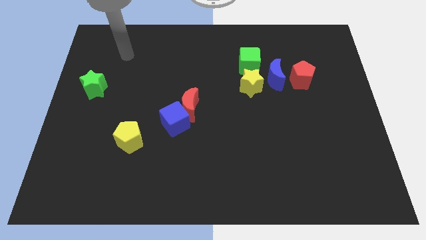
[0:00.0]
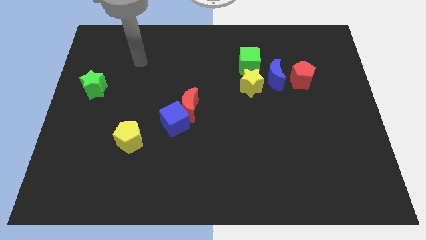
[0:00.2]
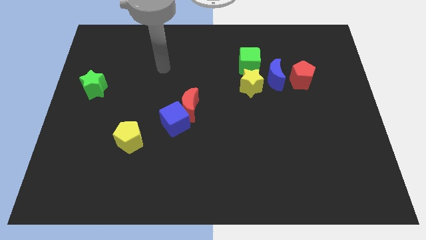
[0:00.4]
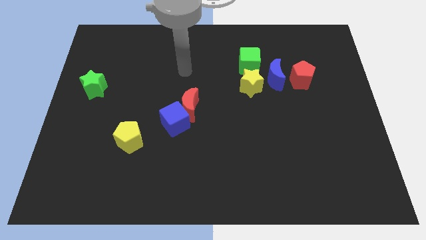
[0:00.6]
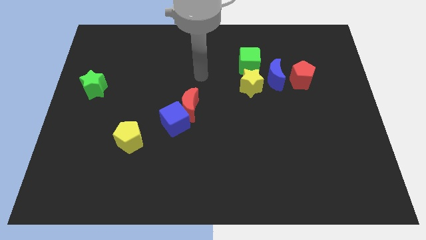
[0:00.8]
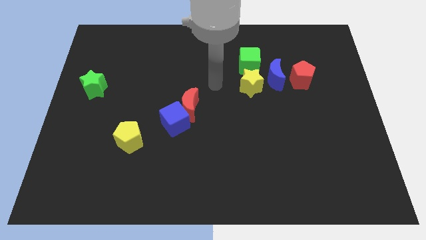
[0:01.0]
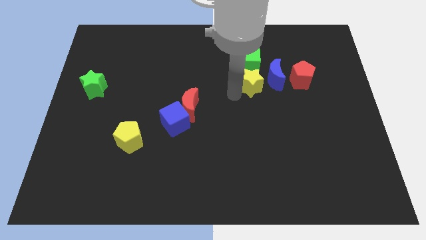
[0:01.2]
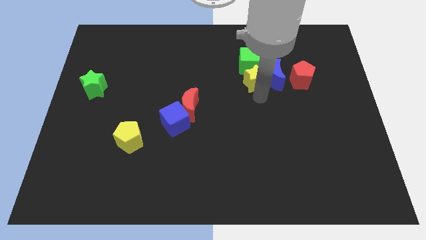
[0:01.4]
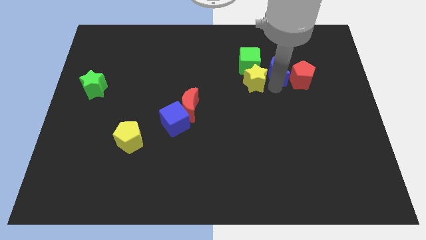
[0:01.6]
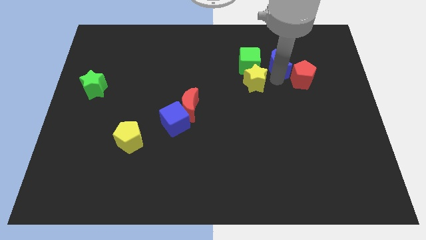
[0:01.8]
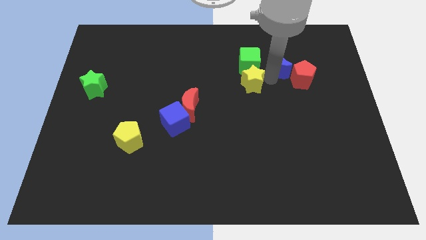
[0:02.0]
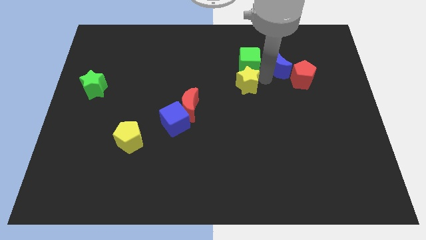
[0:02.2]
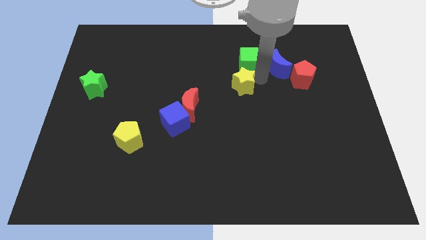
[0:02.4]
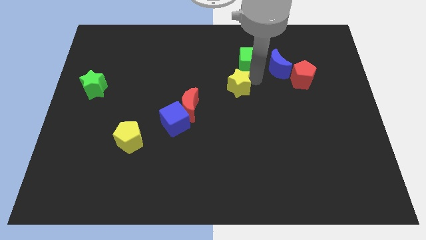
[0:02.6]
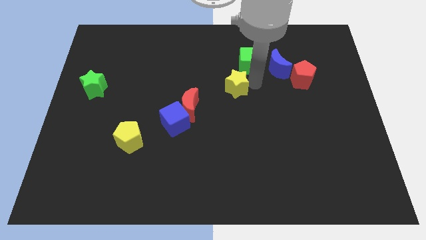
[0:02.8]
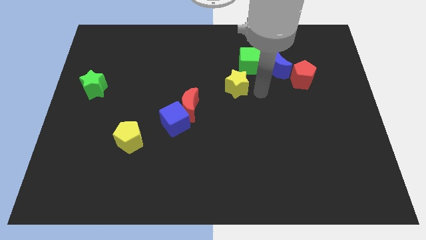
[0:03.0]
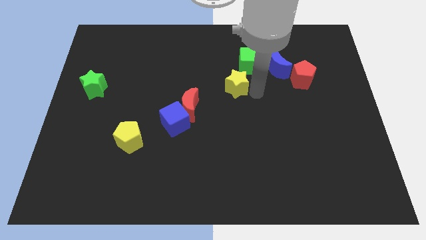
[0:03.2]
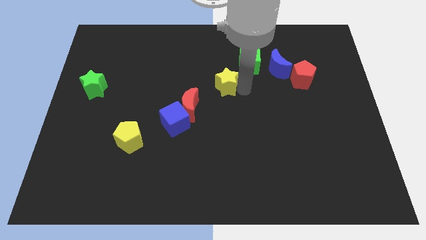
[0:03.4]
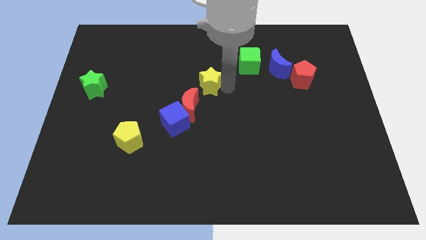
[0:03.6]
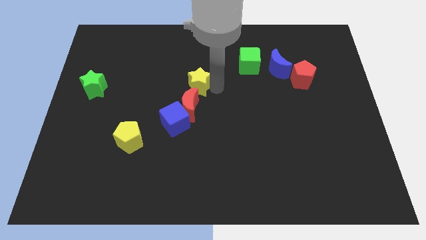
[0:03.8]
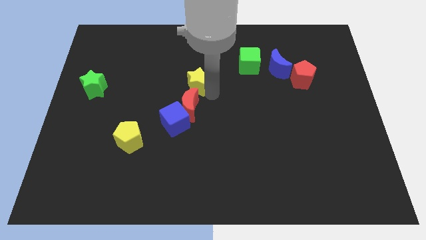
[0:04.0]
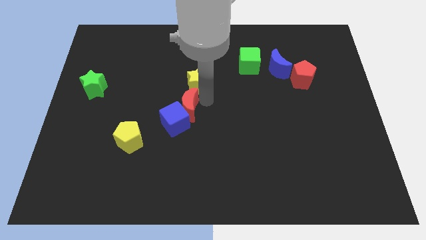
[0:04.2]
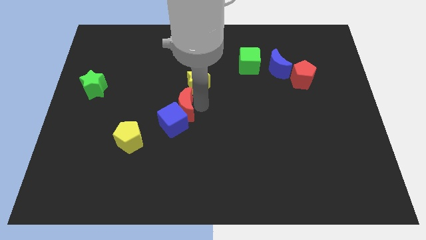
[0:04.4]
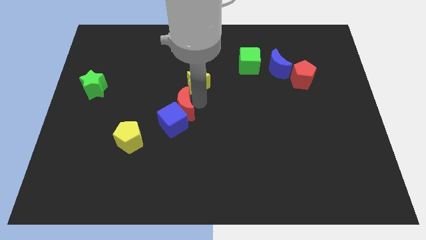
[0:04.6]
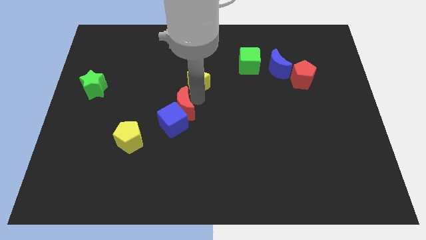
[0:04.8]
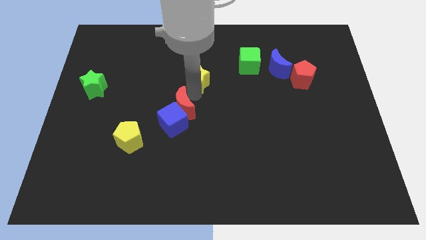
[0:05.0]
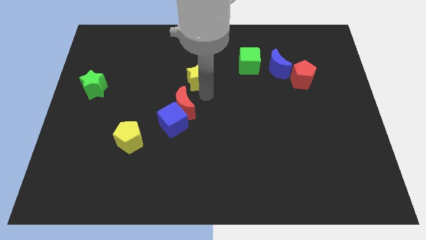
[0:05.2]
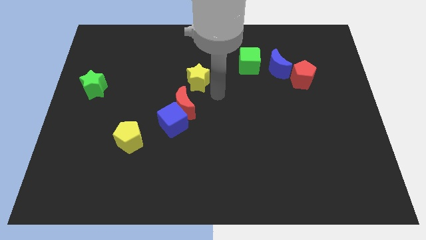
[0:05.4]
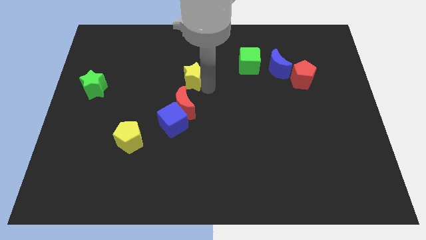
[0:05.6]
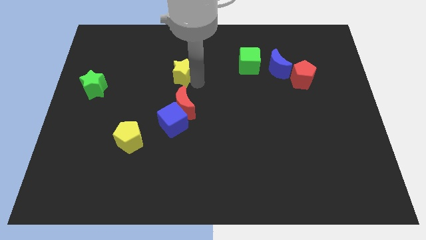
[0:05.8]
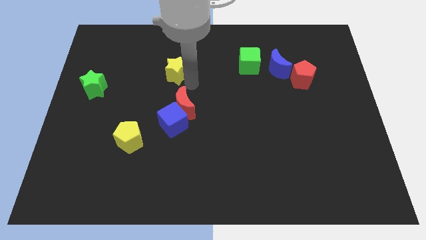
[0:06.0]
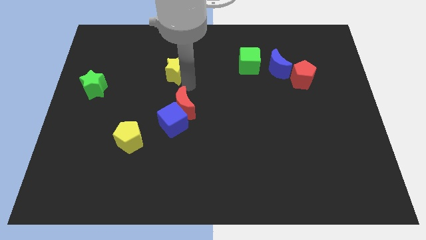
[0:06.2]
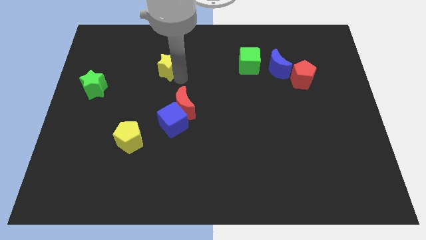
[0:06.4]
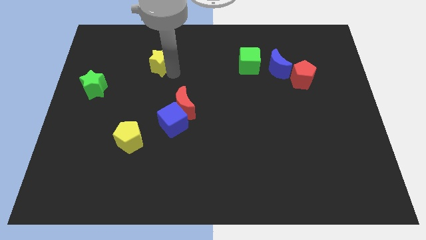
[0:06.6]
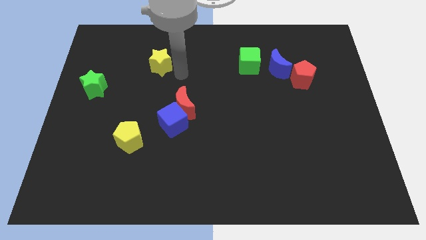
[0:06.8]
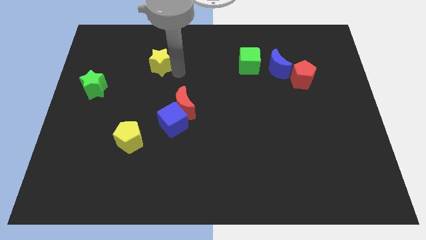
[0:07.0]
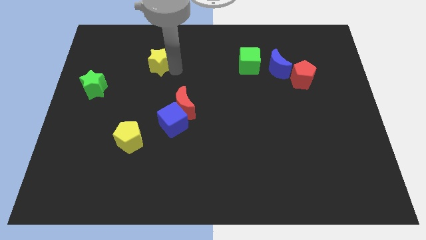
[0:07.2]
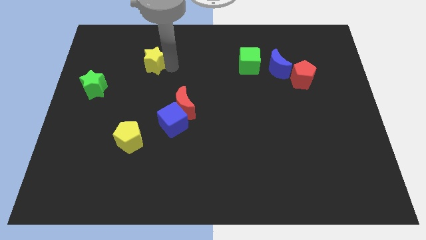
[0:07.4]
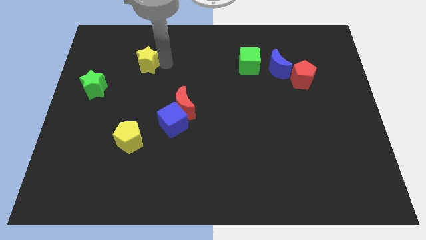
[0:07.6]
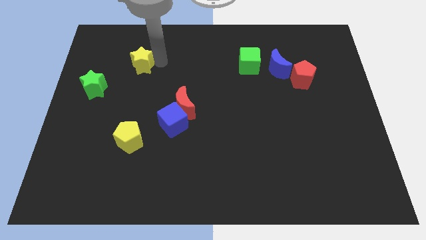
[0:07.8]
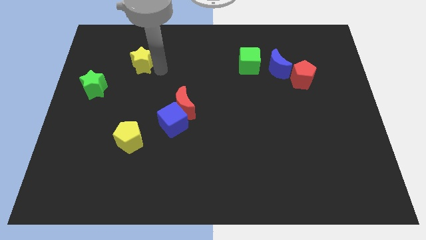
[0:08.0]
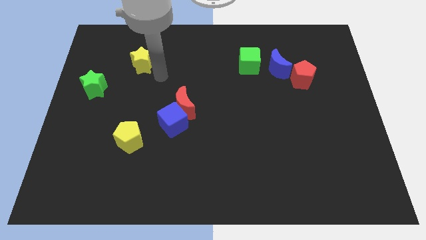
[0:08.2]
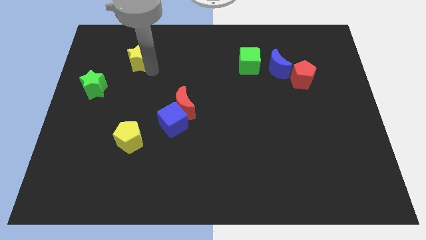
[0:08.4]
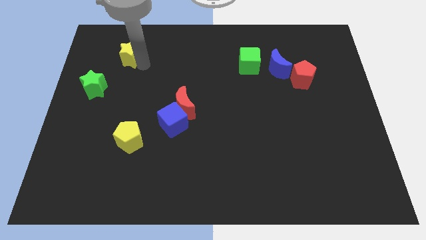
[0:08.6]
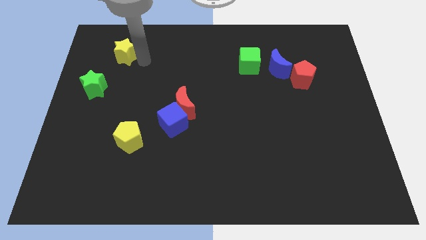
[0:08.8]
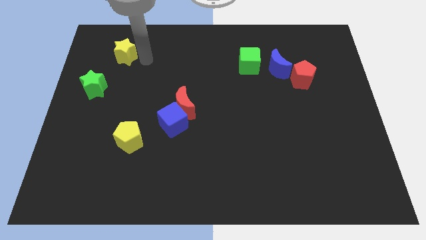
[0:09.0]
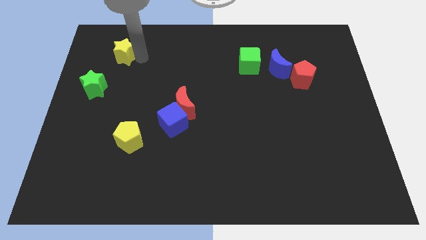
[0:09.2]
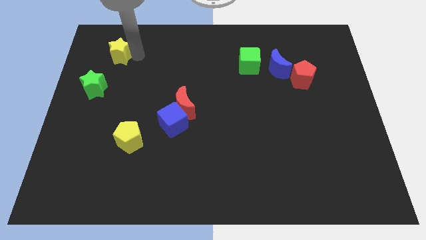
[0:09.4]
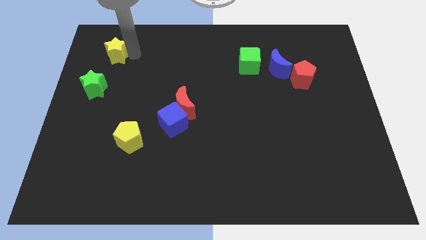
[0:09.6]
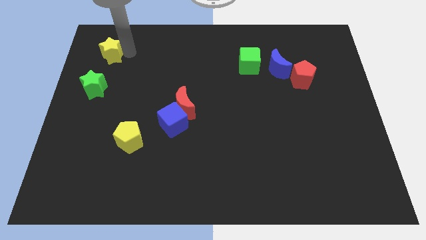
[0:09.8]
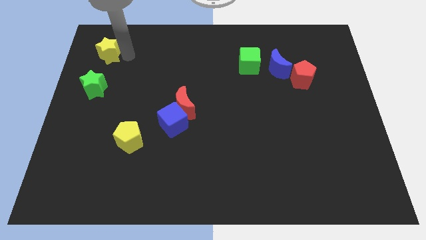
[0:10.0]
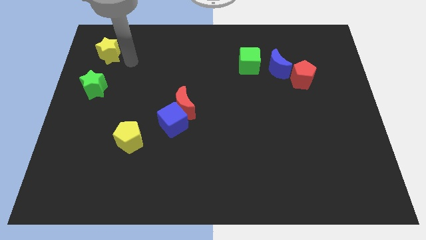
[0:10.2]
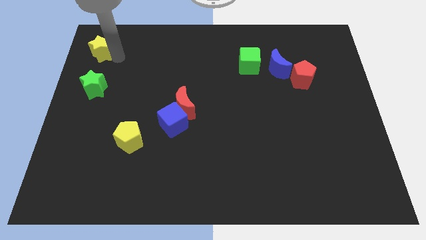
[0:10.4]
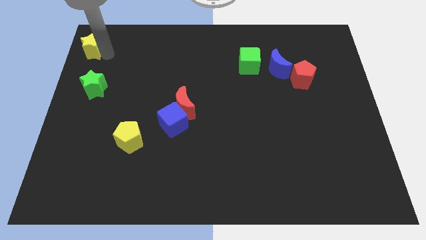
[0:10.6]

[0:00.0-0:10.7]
push the yellow star to the top left corner
